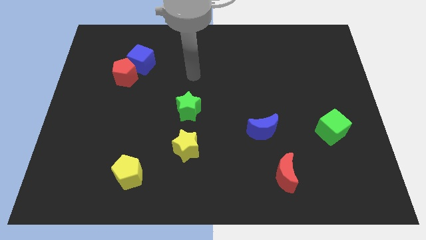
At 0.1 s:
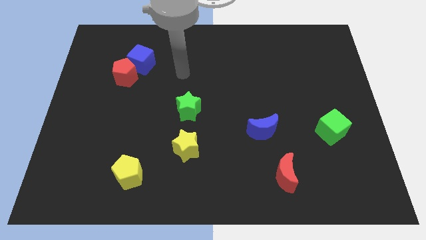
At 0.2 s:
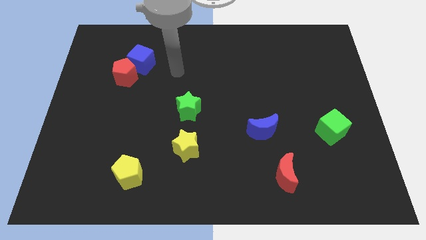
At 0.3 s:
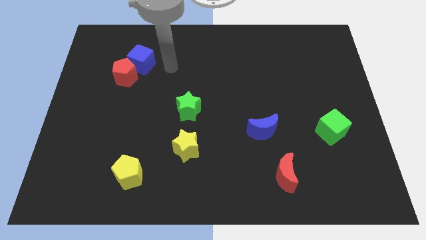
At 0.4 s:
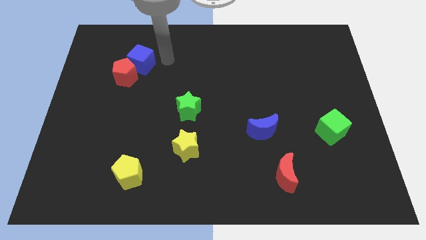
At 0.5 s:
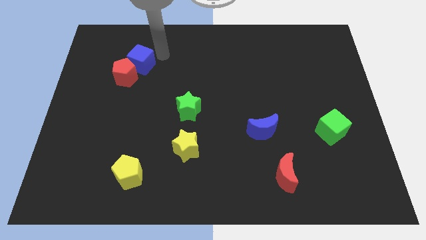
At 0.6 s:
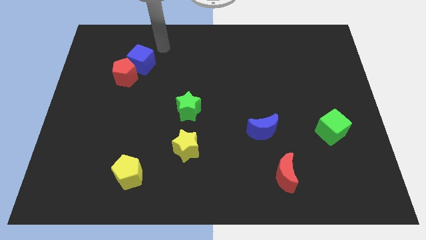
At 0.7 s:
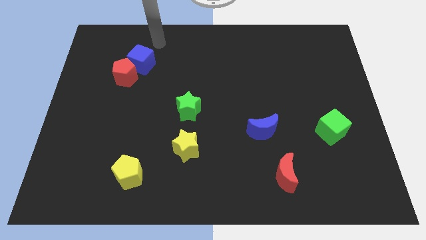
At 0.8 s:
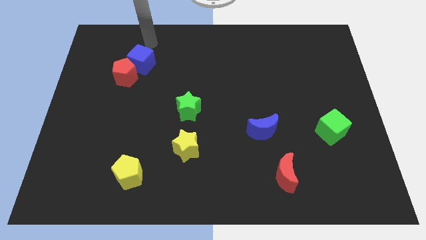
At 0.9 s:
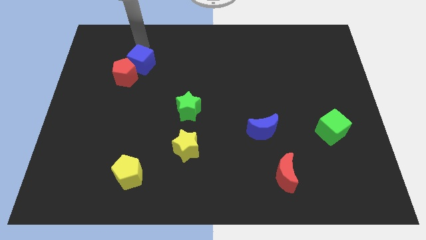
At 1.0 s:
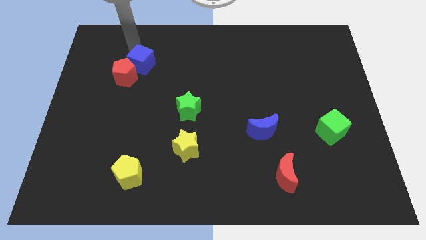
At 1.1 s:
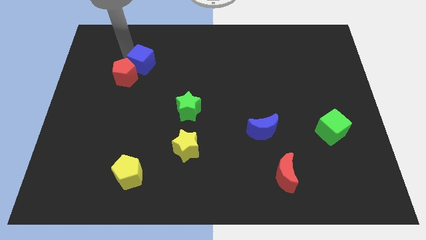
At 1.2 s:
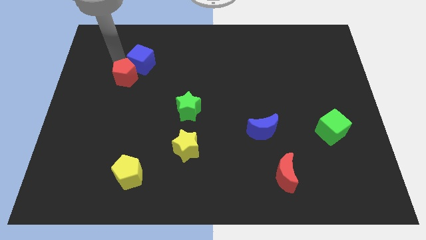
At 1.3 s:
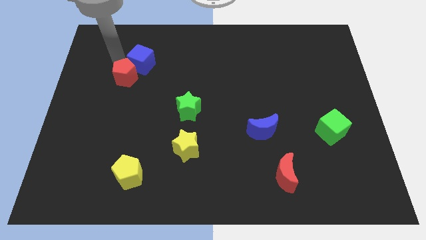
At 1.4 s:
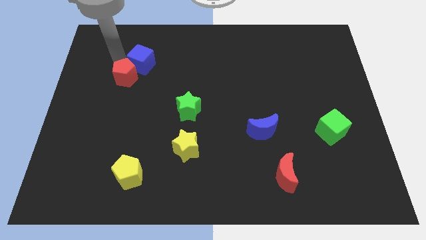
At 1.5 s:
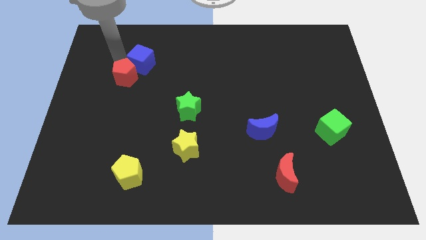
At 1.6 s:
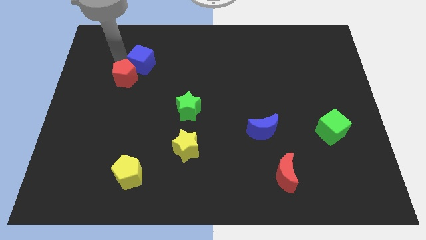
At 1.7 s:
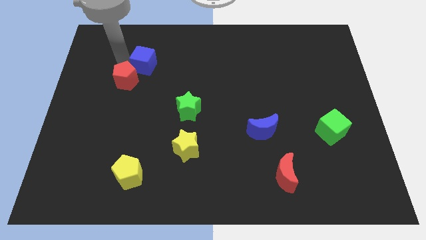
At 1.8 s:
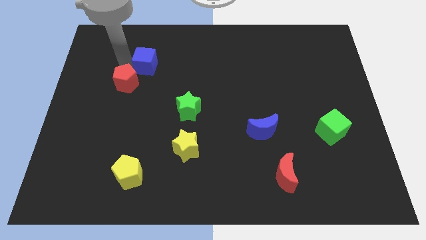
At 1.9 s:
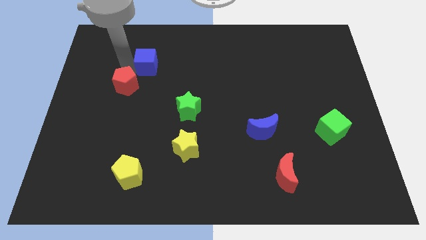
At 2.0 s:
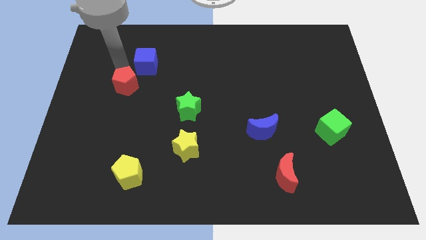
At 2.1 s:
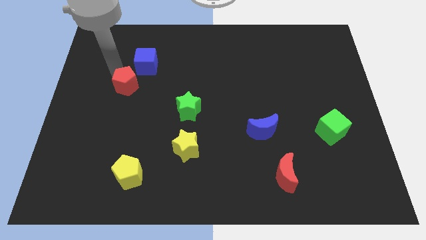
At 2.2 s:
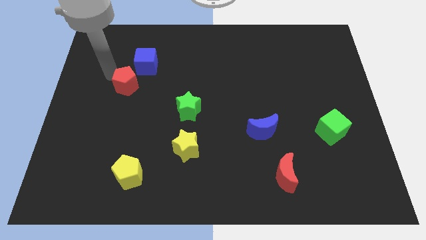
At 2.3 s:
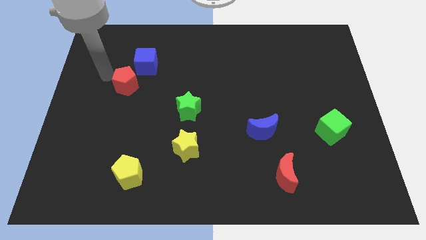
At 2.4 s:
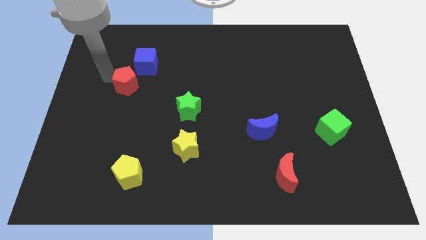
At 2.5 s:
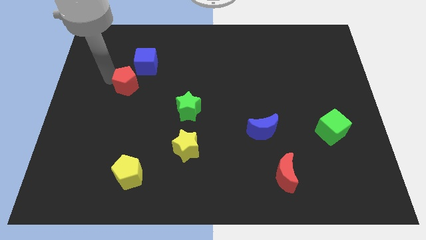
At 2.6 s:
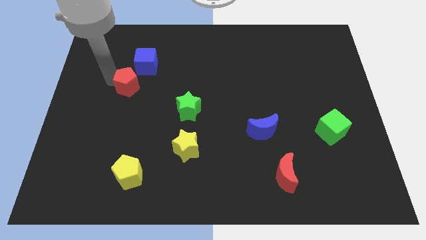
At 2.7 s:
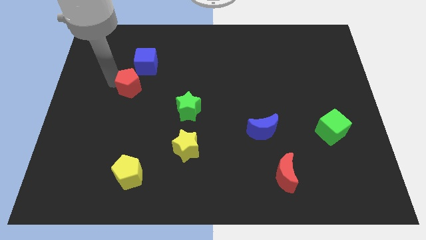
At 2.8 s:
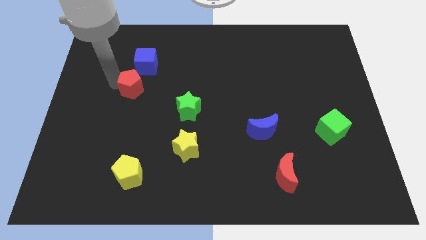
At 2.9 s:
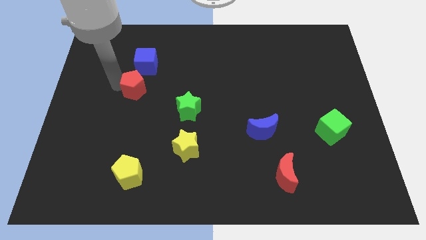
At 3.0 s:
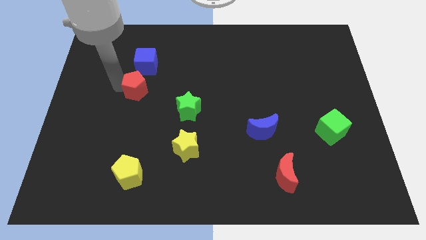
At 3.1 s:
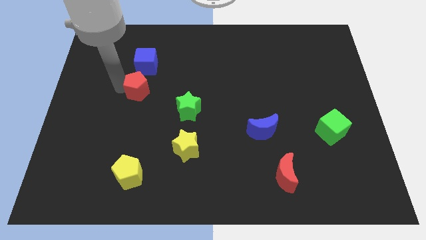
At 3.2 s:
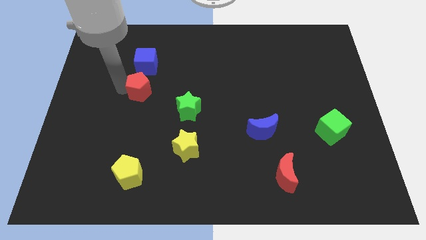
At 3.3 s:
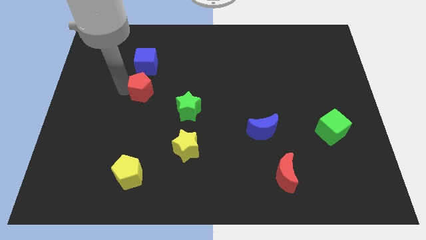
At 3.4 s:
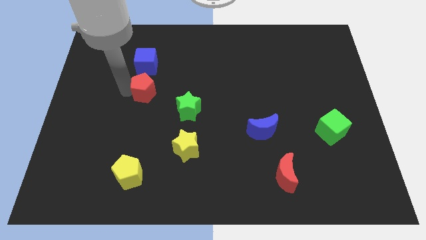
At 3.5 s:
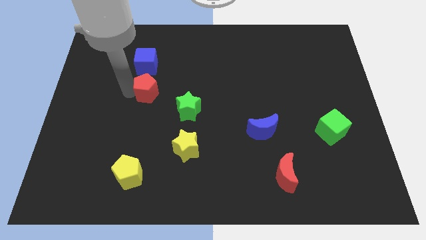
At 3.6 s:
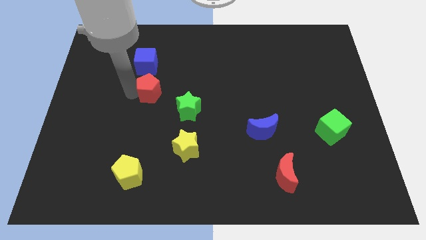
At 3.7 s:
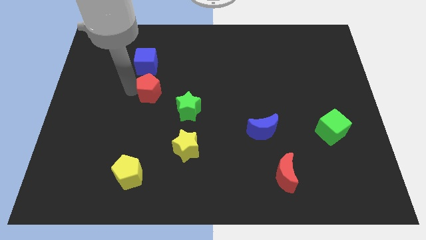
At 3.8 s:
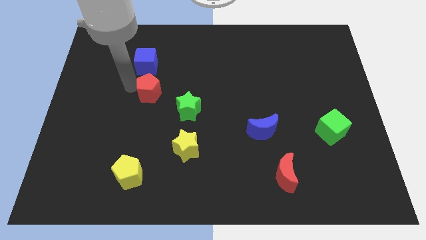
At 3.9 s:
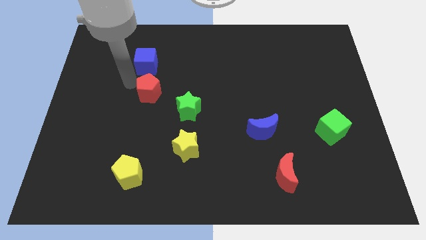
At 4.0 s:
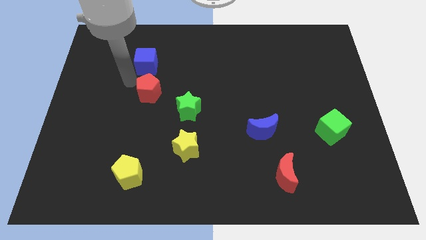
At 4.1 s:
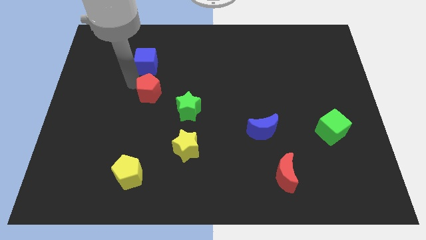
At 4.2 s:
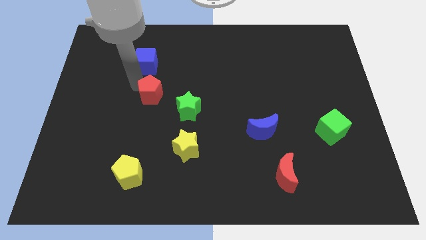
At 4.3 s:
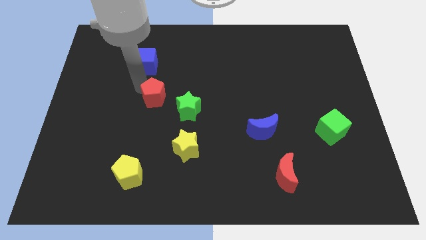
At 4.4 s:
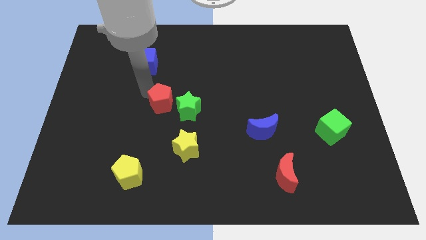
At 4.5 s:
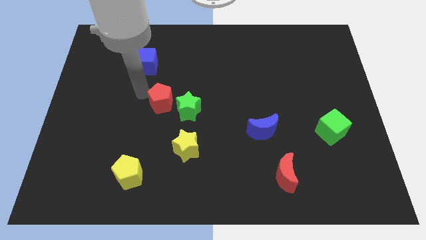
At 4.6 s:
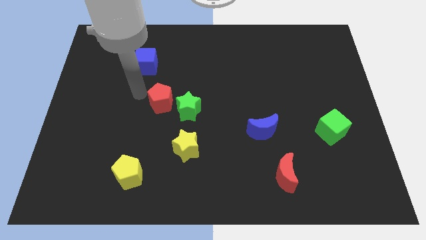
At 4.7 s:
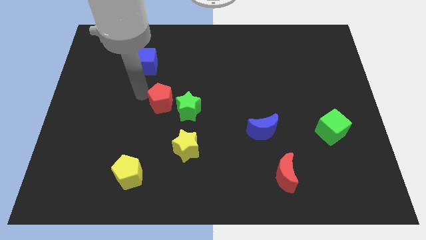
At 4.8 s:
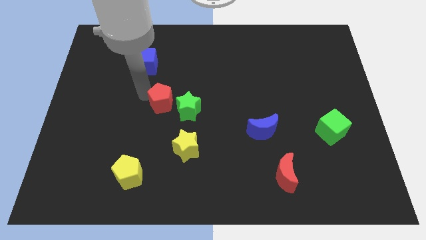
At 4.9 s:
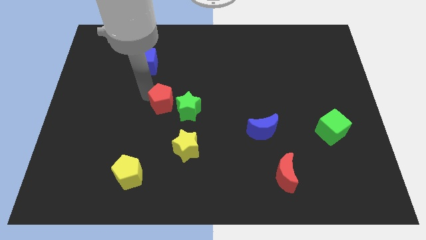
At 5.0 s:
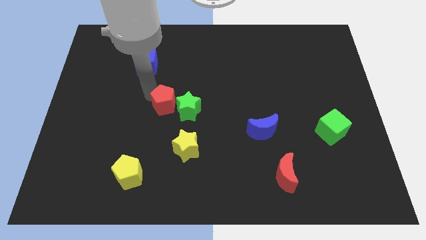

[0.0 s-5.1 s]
slide the red pentagon next to the green star

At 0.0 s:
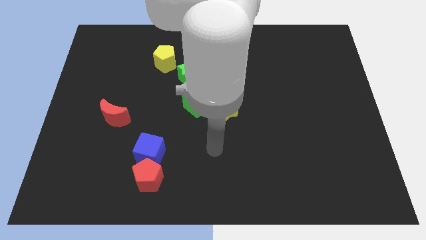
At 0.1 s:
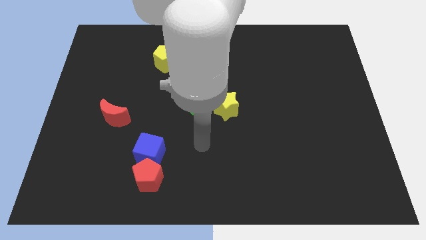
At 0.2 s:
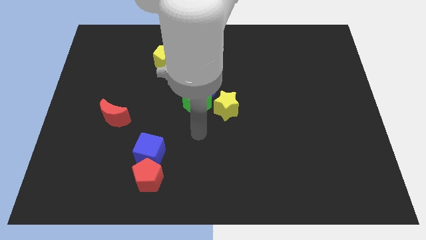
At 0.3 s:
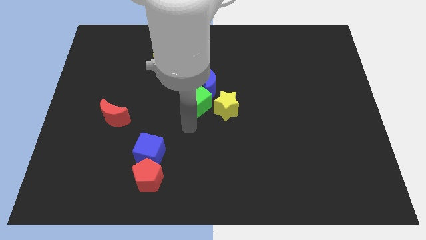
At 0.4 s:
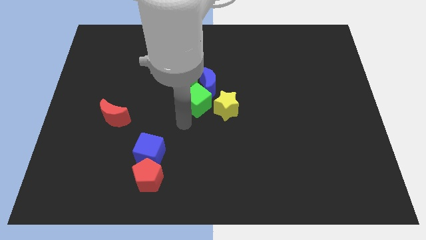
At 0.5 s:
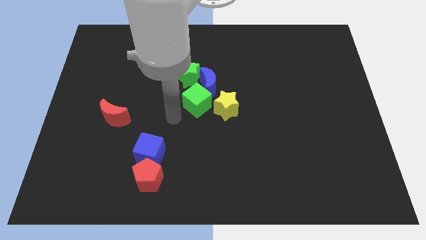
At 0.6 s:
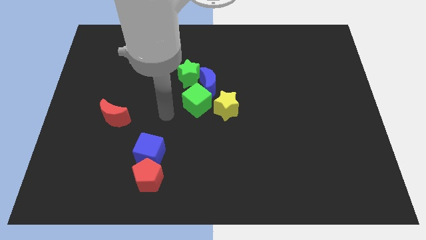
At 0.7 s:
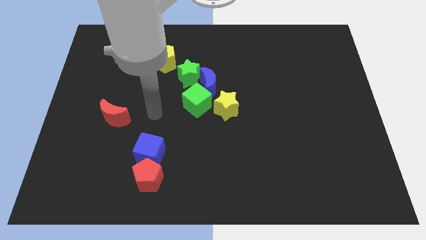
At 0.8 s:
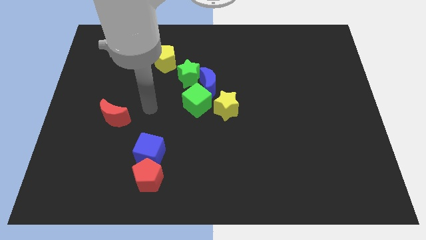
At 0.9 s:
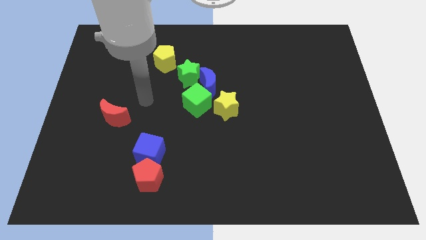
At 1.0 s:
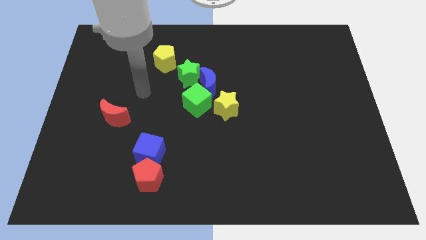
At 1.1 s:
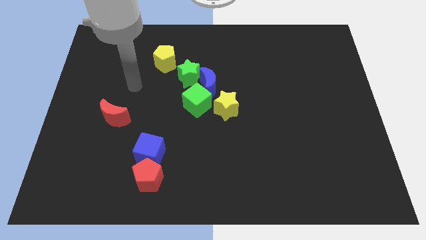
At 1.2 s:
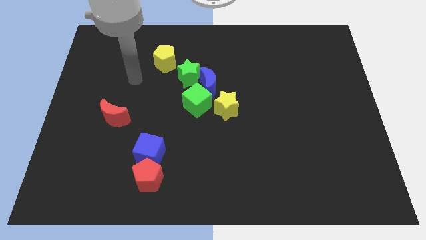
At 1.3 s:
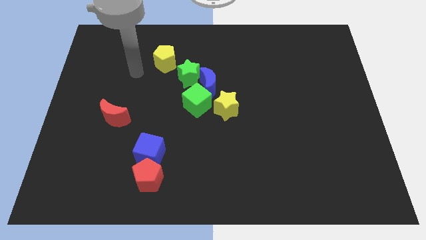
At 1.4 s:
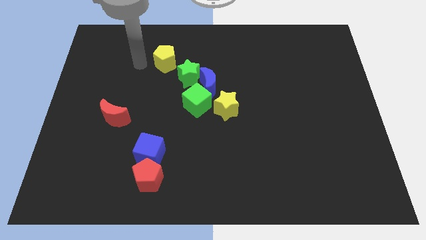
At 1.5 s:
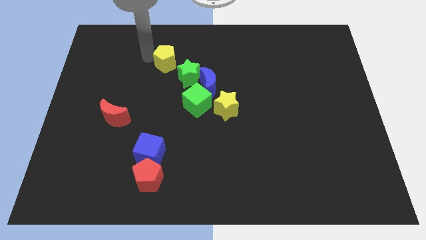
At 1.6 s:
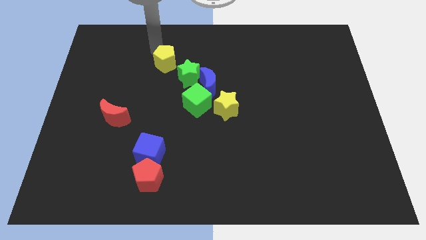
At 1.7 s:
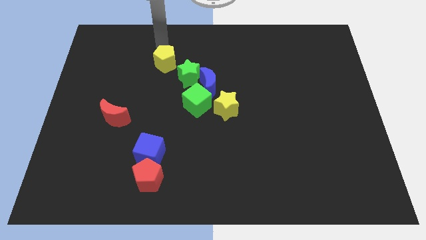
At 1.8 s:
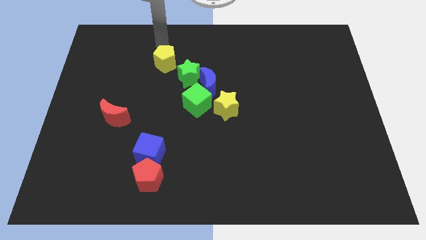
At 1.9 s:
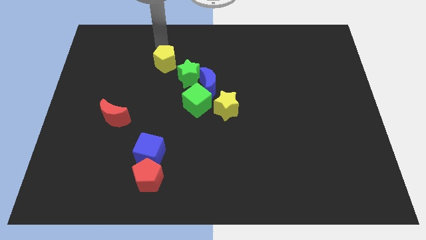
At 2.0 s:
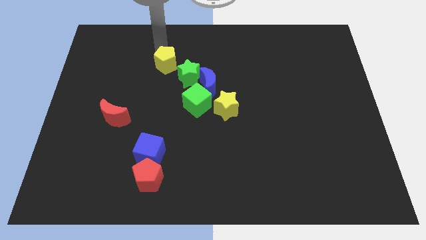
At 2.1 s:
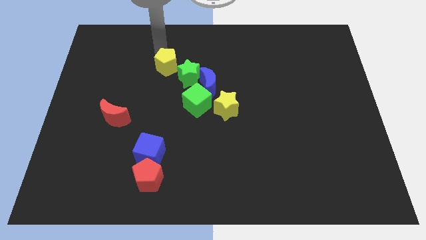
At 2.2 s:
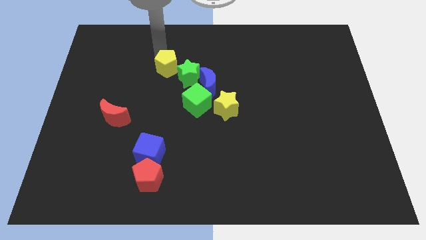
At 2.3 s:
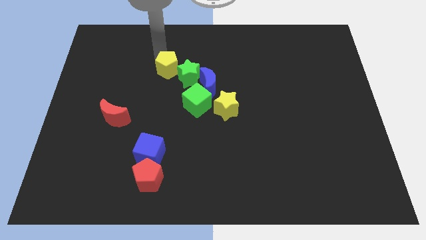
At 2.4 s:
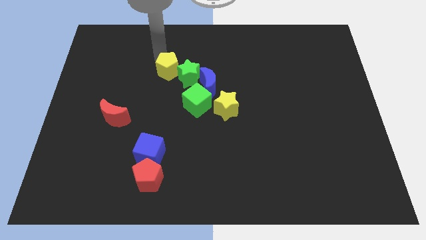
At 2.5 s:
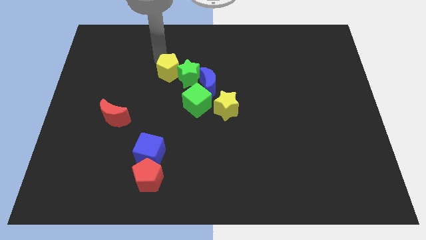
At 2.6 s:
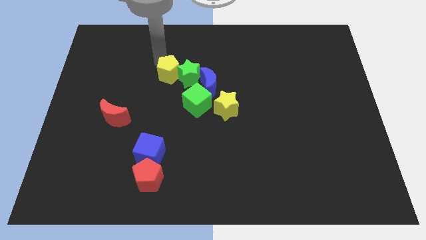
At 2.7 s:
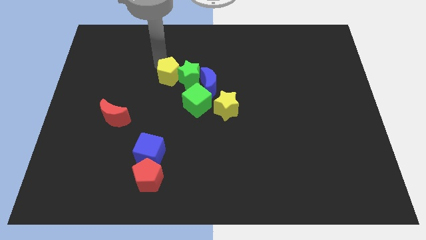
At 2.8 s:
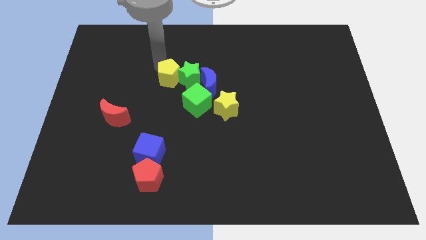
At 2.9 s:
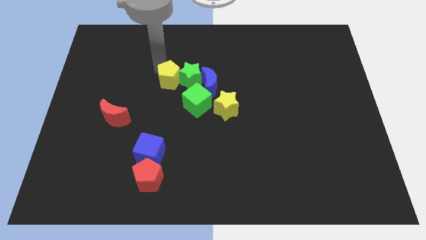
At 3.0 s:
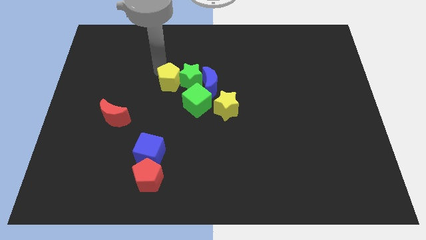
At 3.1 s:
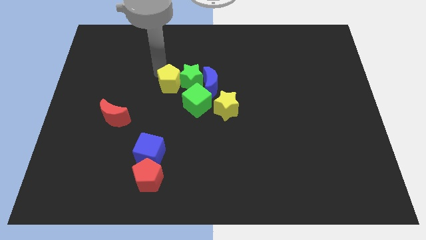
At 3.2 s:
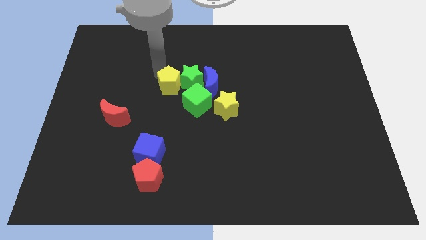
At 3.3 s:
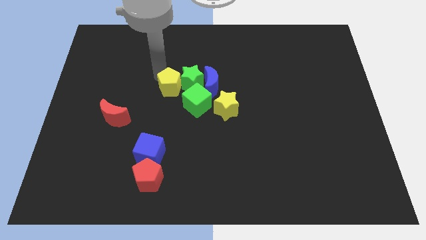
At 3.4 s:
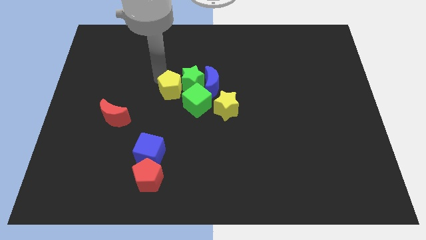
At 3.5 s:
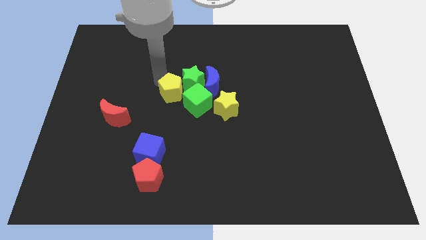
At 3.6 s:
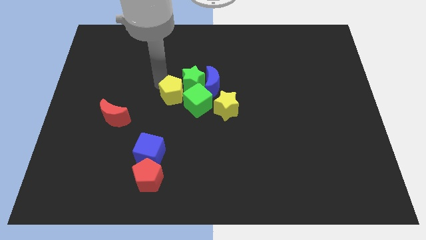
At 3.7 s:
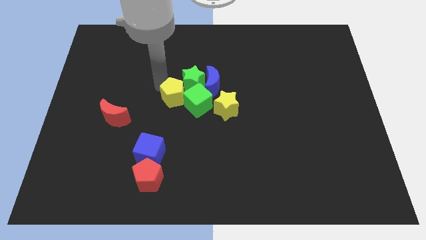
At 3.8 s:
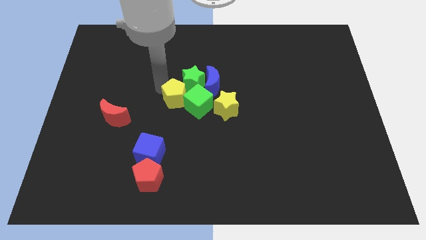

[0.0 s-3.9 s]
move the yellow pentagon towards the green cube
